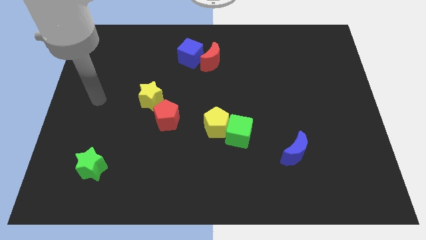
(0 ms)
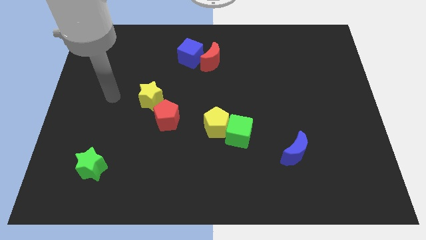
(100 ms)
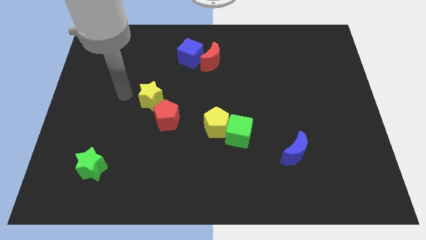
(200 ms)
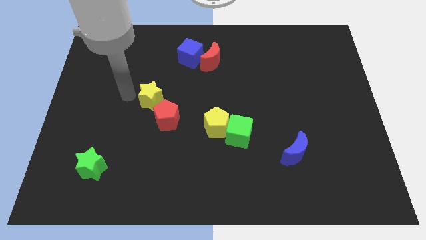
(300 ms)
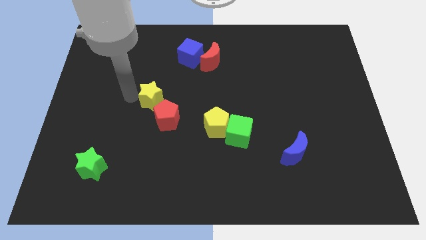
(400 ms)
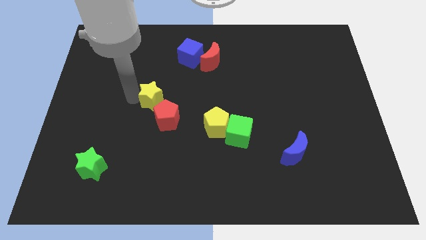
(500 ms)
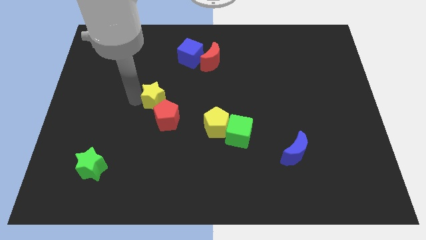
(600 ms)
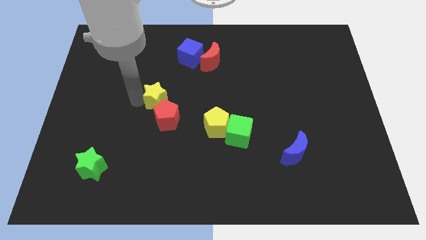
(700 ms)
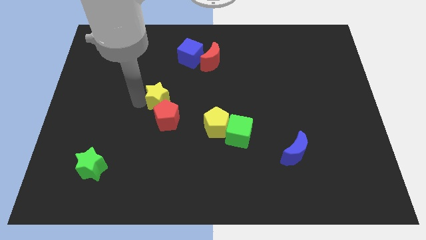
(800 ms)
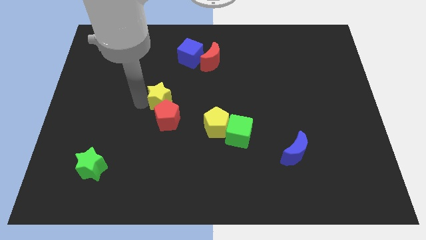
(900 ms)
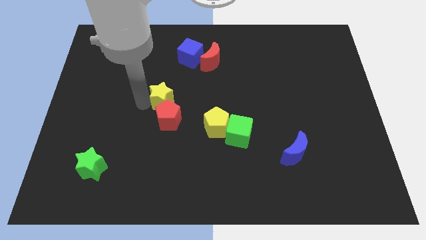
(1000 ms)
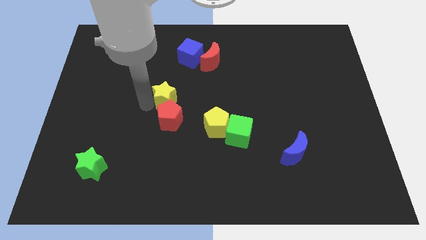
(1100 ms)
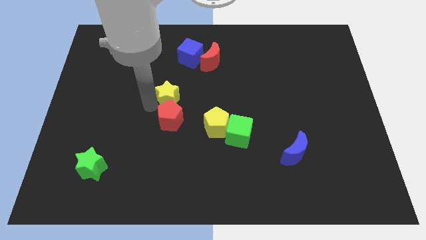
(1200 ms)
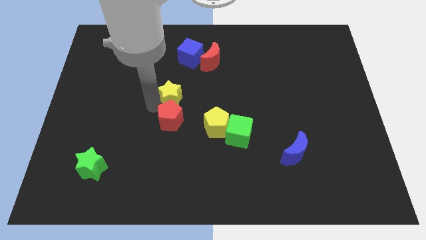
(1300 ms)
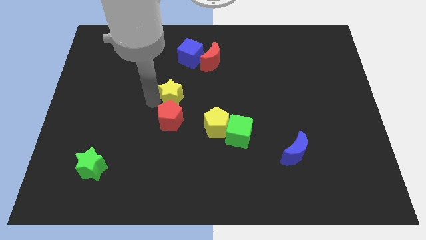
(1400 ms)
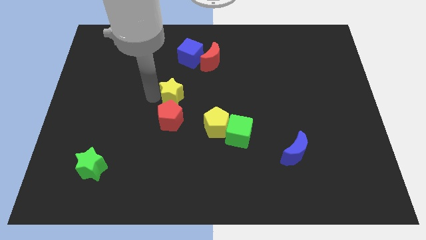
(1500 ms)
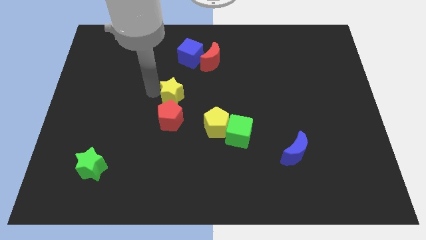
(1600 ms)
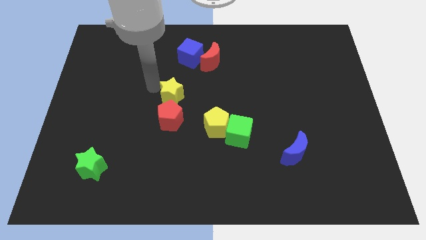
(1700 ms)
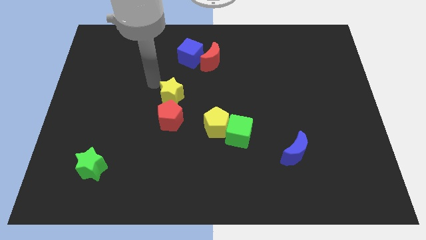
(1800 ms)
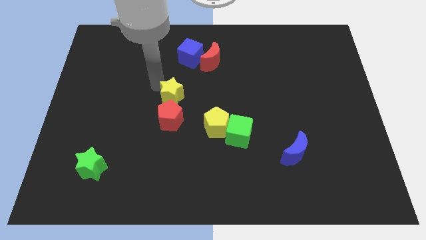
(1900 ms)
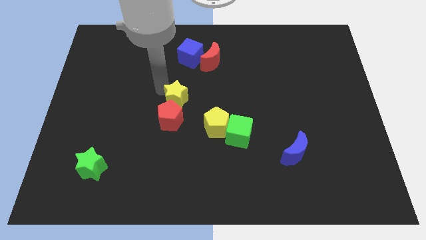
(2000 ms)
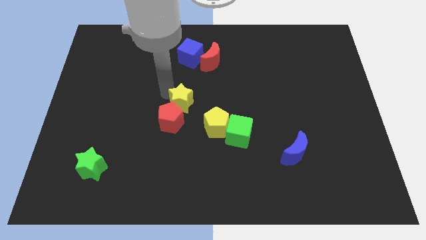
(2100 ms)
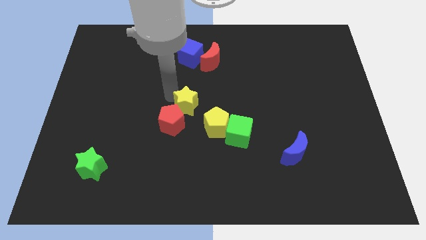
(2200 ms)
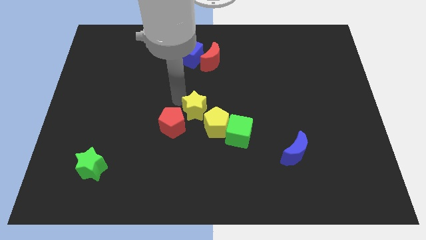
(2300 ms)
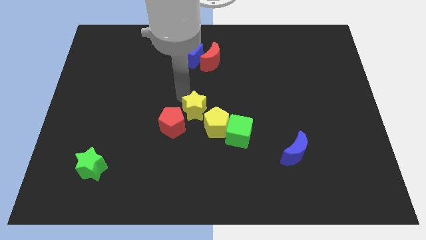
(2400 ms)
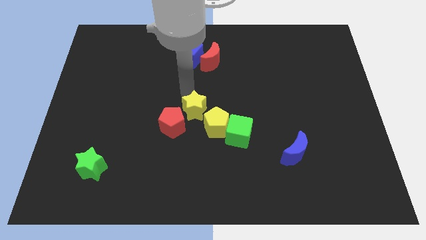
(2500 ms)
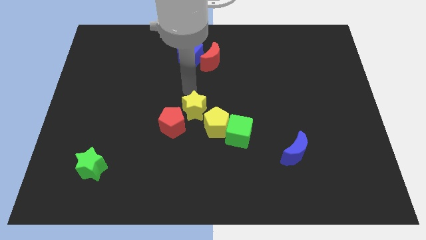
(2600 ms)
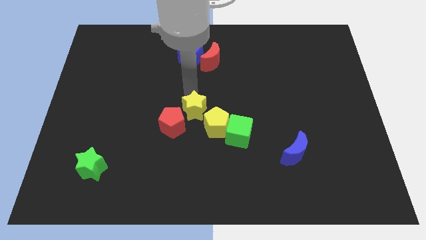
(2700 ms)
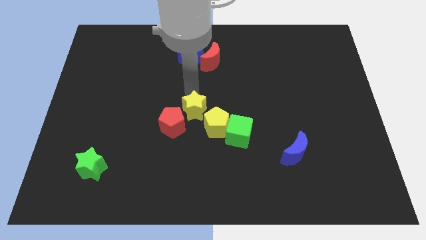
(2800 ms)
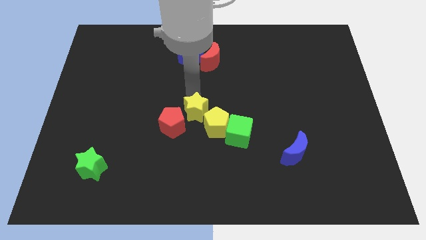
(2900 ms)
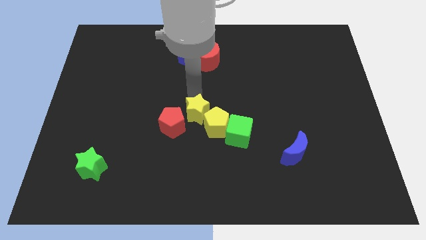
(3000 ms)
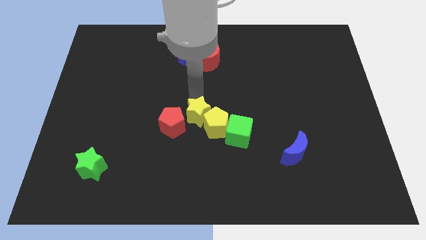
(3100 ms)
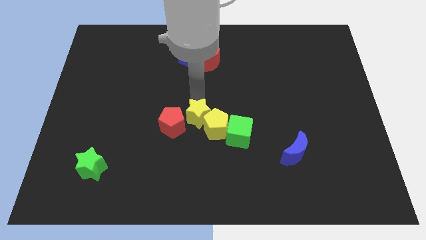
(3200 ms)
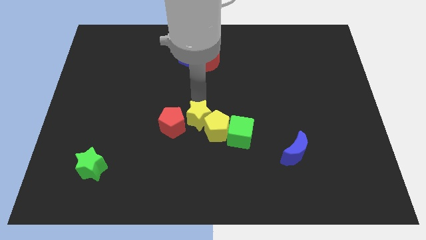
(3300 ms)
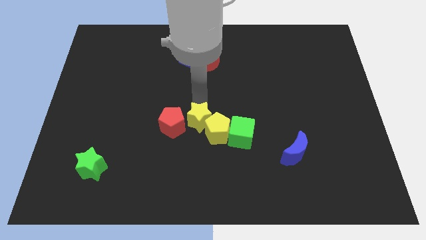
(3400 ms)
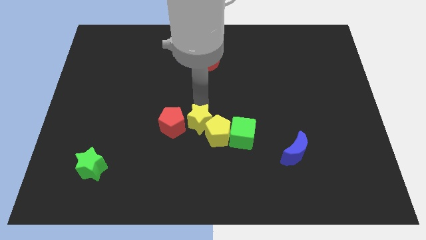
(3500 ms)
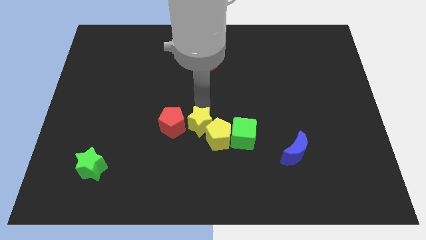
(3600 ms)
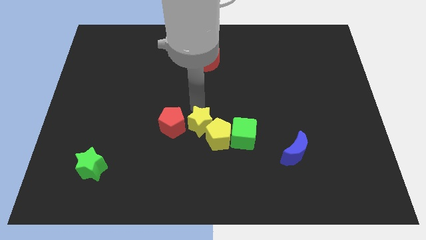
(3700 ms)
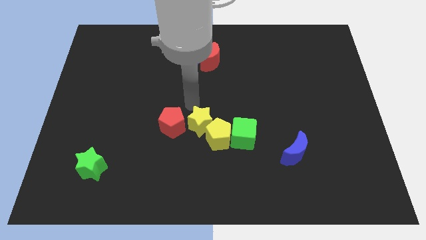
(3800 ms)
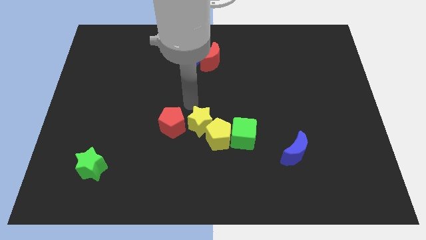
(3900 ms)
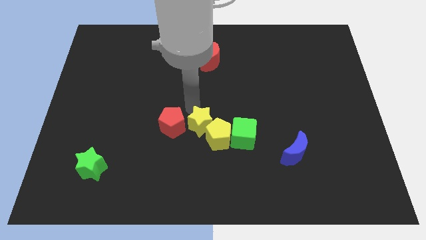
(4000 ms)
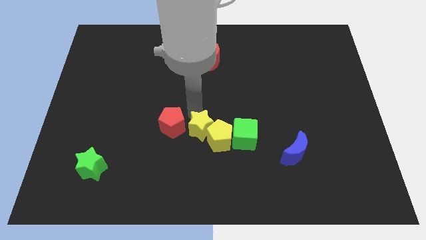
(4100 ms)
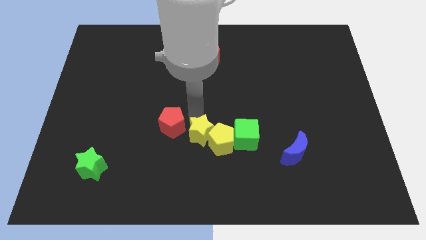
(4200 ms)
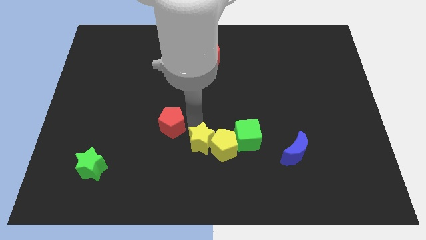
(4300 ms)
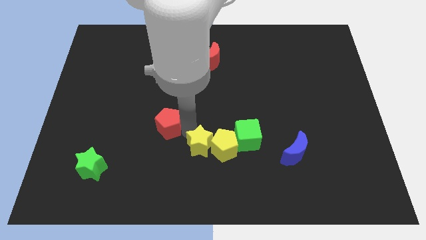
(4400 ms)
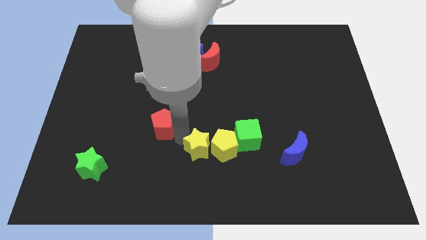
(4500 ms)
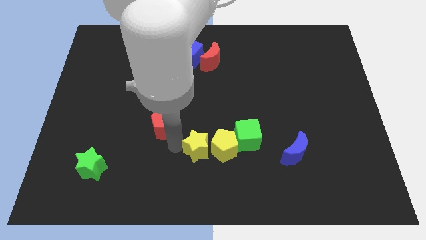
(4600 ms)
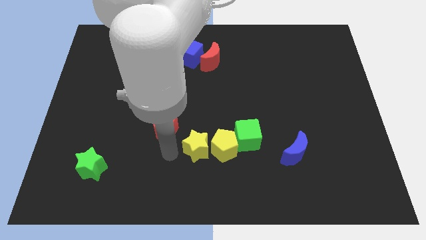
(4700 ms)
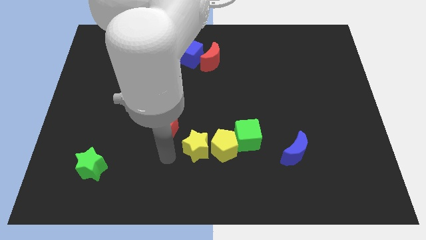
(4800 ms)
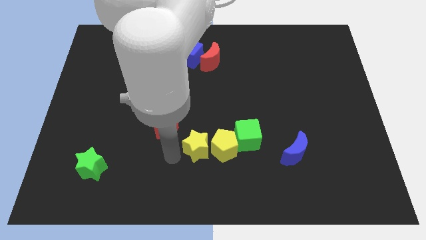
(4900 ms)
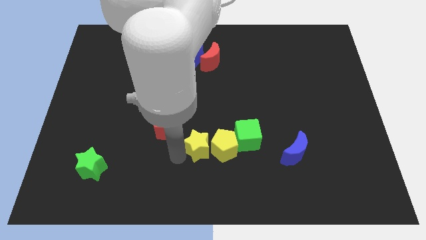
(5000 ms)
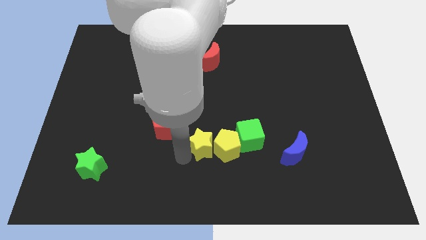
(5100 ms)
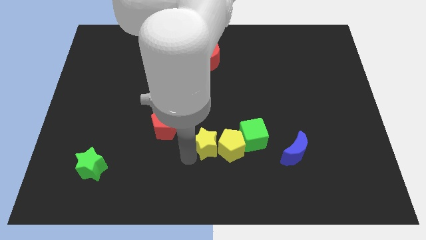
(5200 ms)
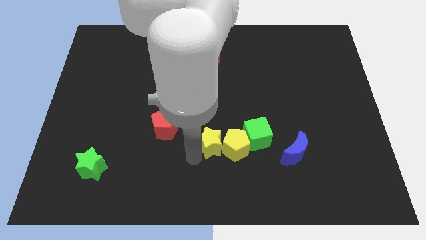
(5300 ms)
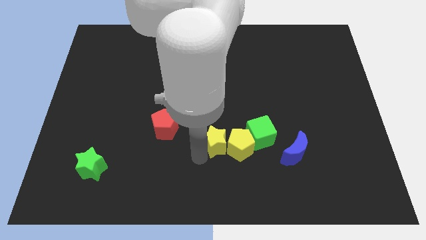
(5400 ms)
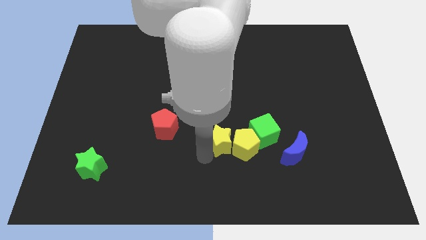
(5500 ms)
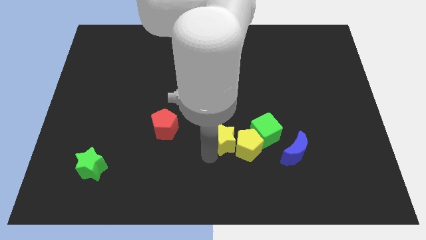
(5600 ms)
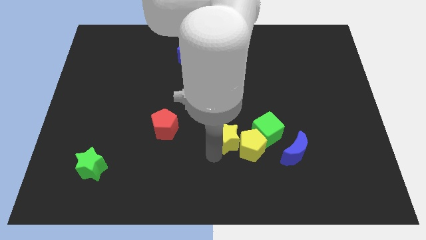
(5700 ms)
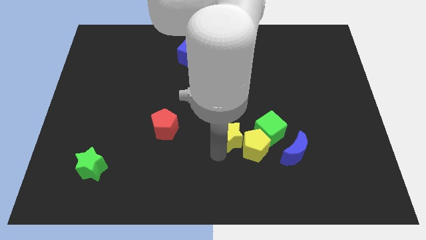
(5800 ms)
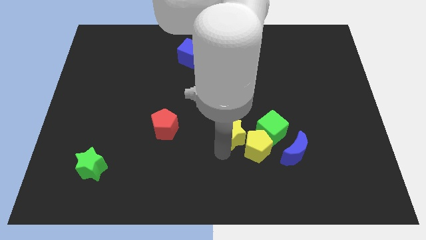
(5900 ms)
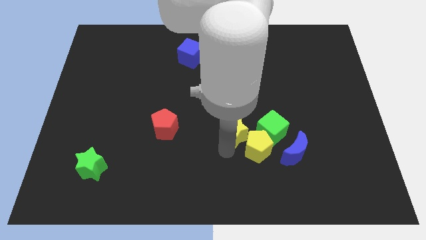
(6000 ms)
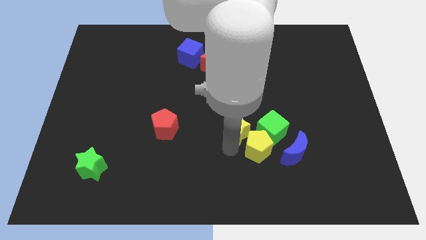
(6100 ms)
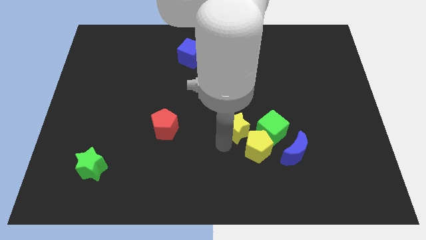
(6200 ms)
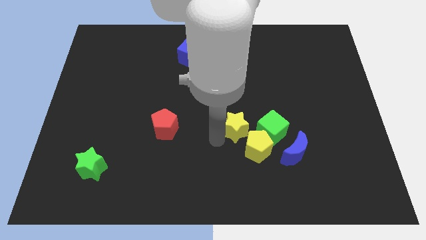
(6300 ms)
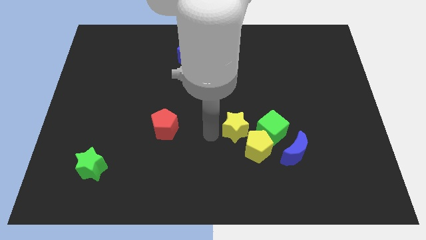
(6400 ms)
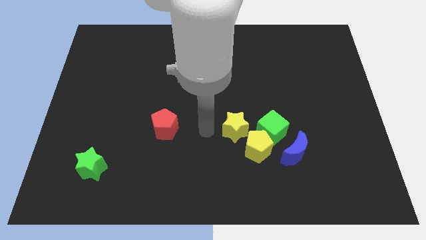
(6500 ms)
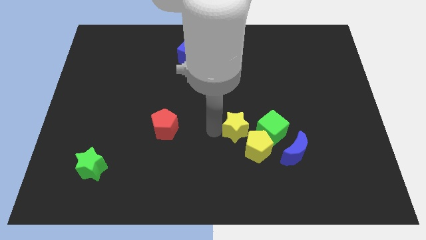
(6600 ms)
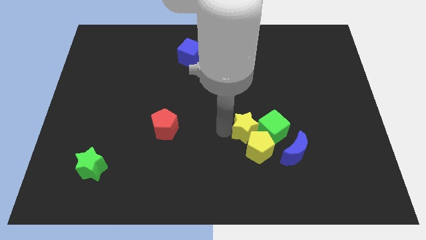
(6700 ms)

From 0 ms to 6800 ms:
move the yellow star next to the green cube
